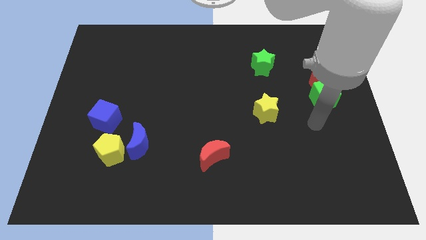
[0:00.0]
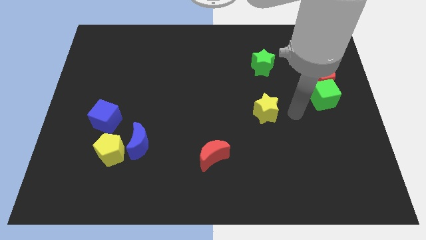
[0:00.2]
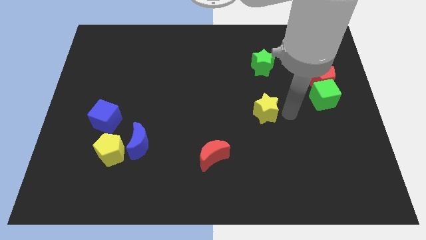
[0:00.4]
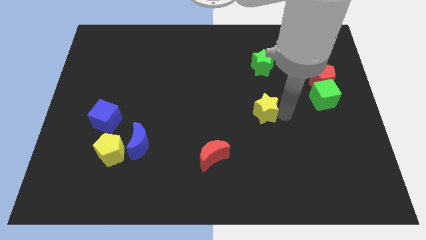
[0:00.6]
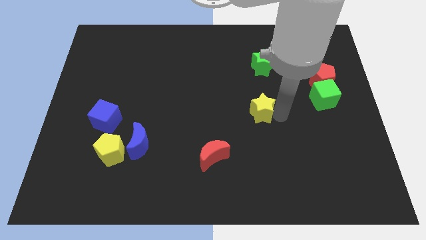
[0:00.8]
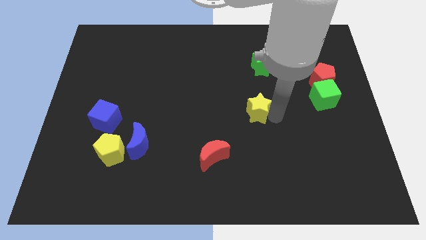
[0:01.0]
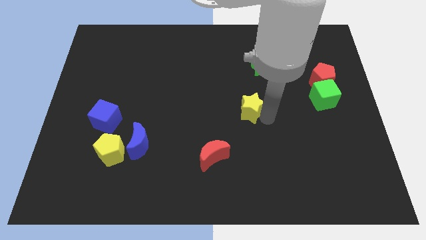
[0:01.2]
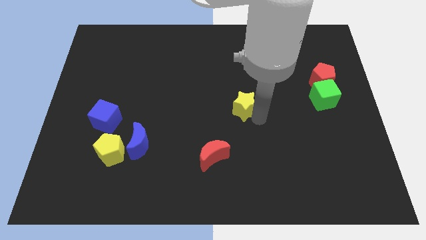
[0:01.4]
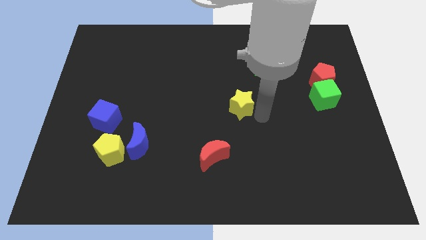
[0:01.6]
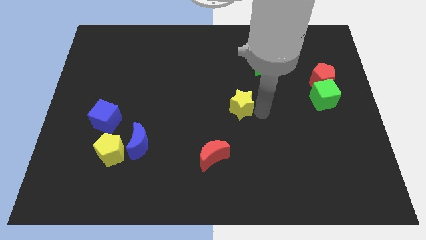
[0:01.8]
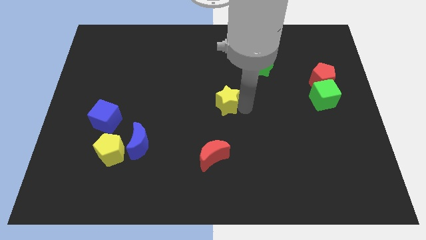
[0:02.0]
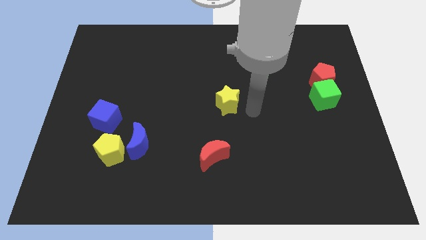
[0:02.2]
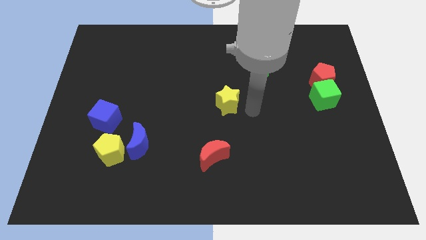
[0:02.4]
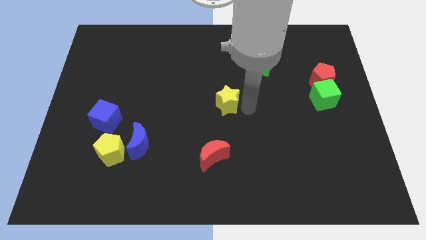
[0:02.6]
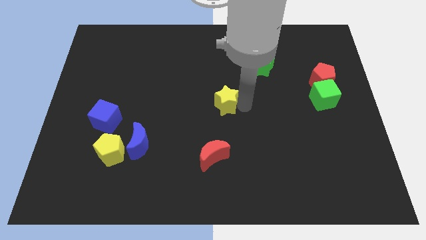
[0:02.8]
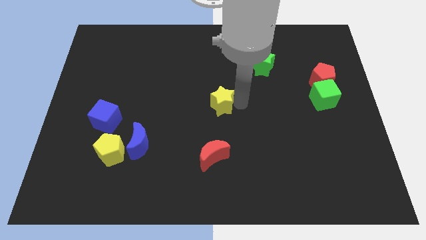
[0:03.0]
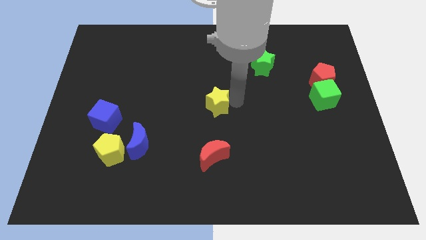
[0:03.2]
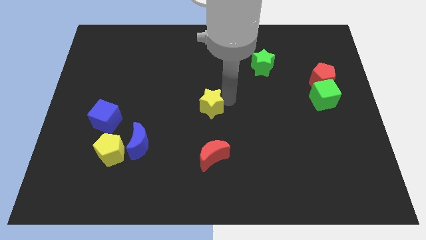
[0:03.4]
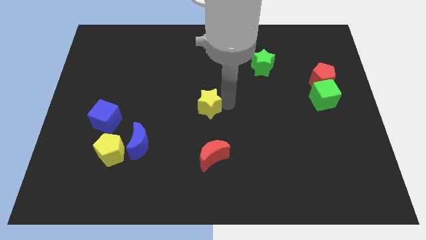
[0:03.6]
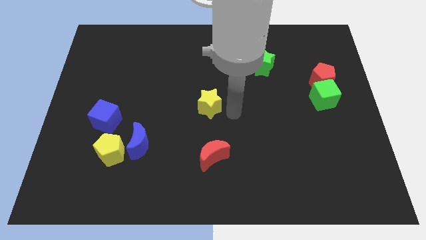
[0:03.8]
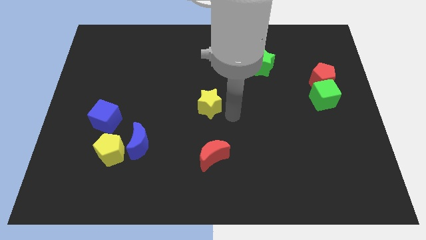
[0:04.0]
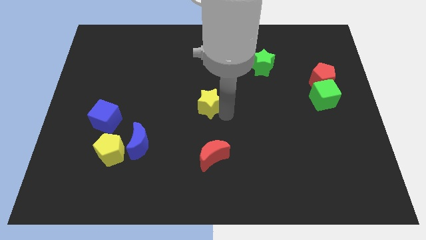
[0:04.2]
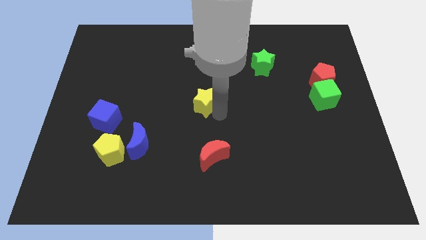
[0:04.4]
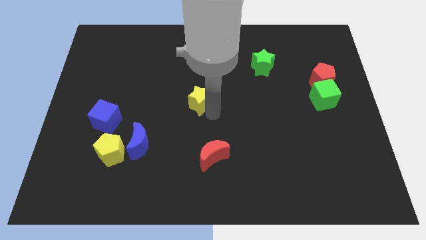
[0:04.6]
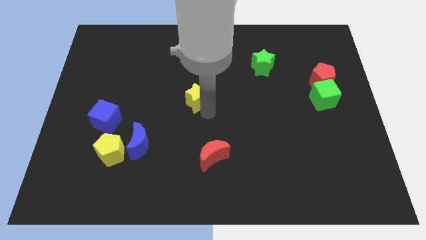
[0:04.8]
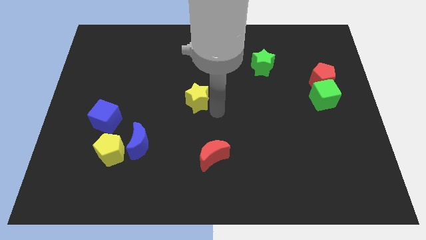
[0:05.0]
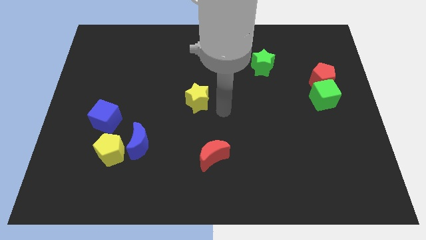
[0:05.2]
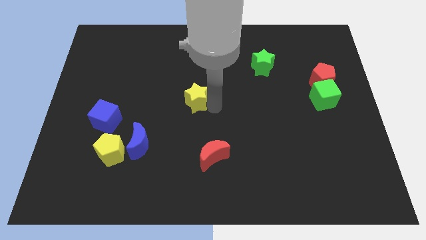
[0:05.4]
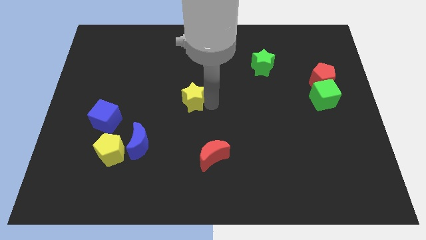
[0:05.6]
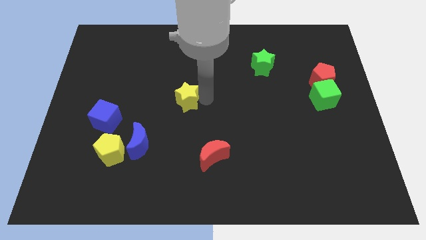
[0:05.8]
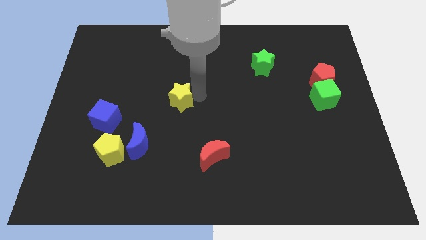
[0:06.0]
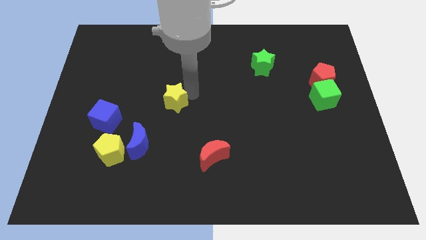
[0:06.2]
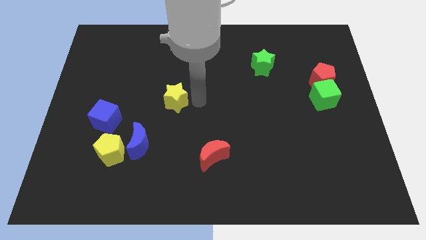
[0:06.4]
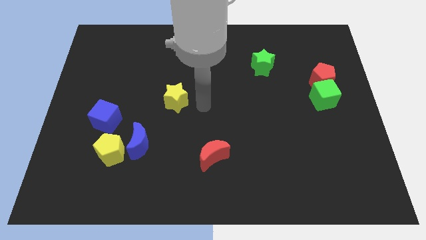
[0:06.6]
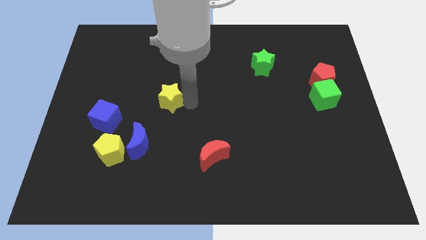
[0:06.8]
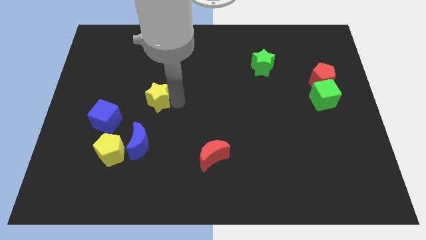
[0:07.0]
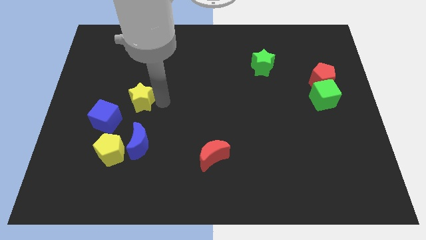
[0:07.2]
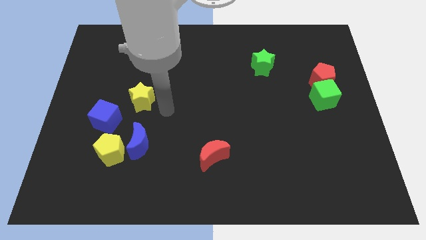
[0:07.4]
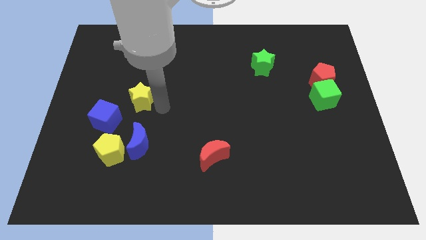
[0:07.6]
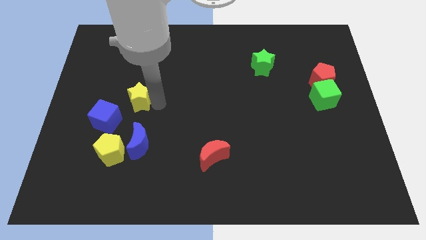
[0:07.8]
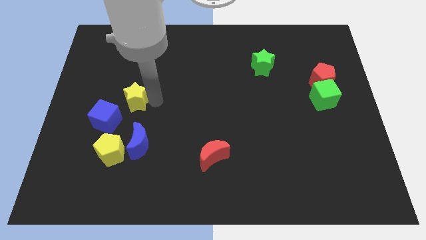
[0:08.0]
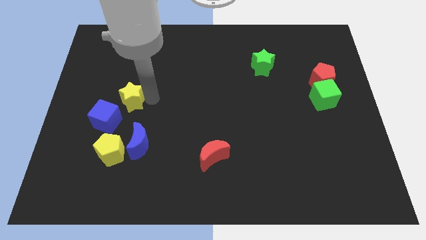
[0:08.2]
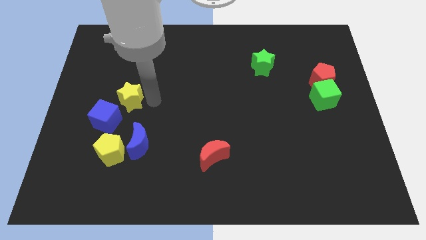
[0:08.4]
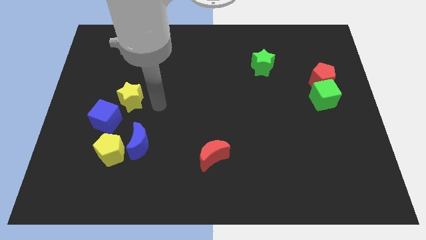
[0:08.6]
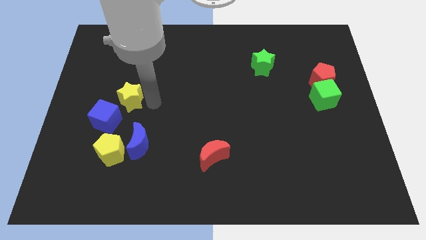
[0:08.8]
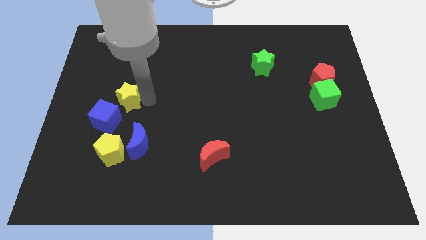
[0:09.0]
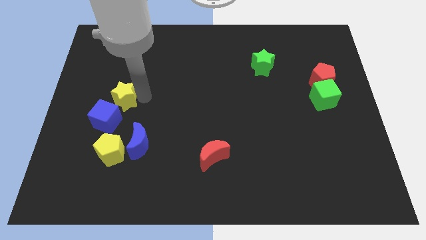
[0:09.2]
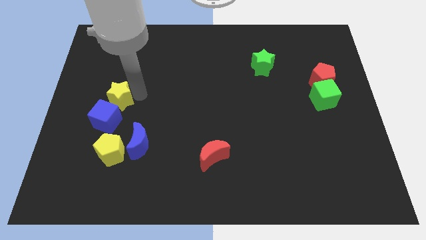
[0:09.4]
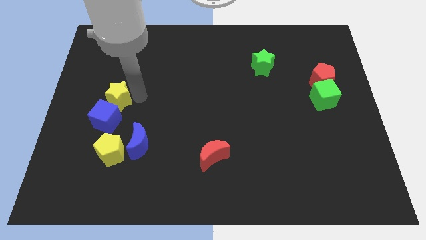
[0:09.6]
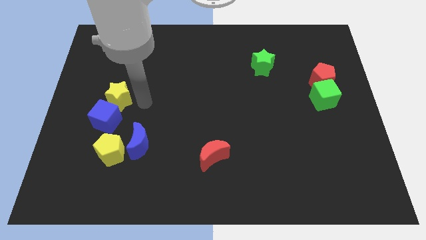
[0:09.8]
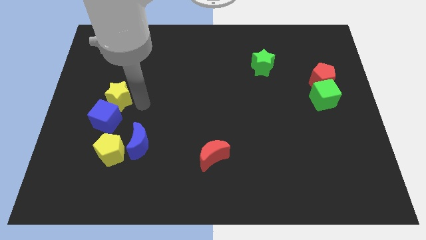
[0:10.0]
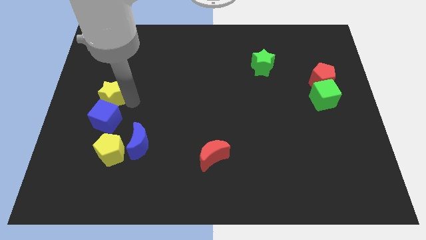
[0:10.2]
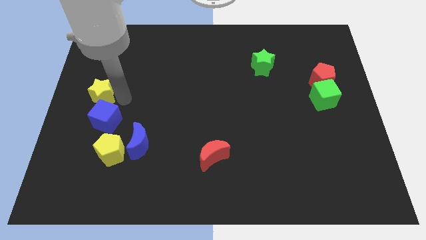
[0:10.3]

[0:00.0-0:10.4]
push the yellow star to the left side of the board

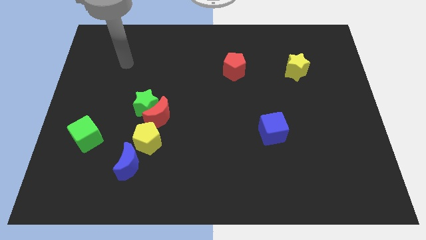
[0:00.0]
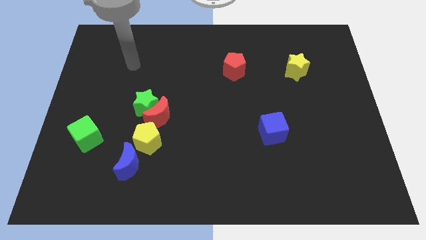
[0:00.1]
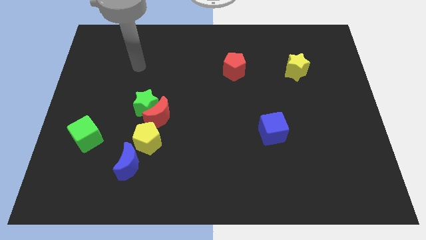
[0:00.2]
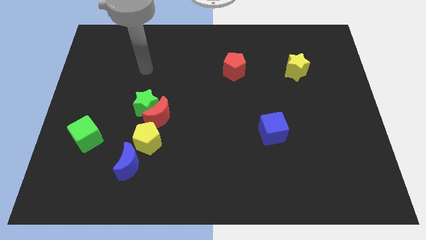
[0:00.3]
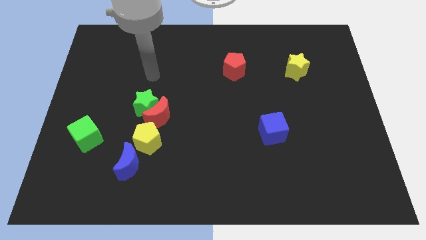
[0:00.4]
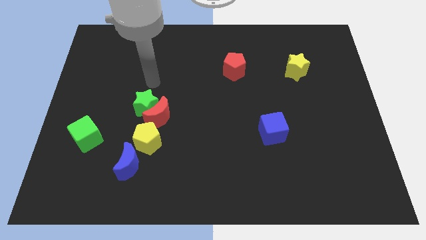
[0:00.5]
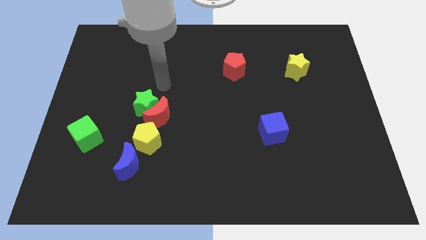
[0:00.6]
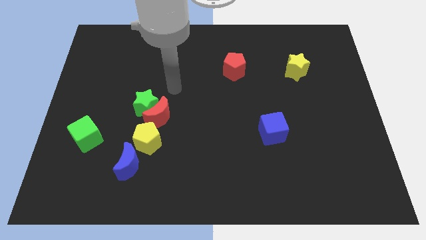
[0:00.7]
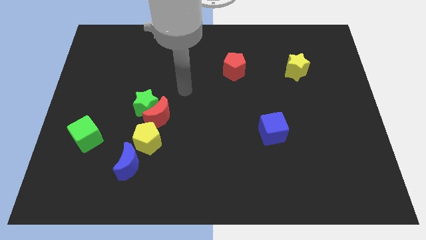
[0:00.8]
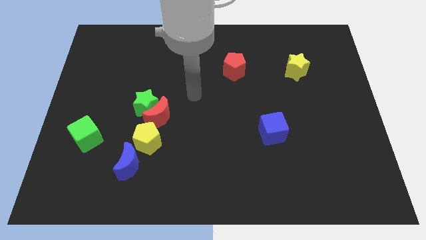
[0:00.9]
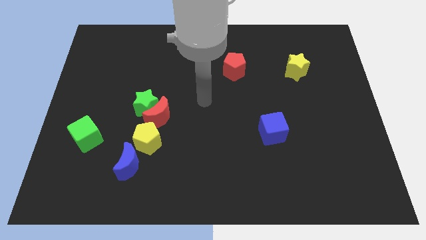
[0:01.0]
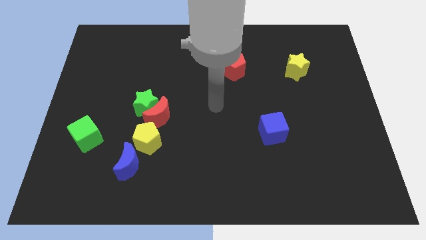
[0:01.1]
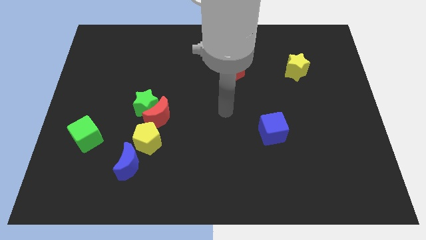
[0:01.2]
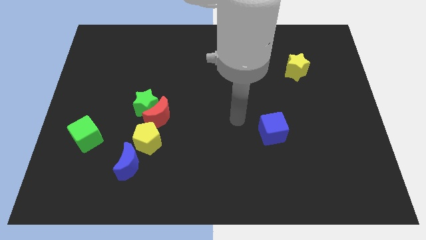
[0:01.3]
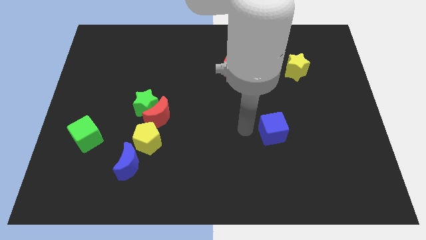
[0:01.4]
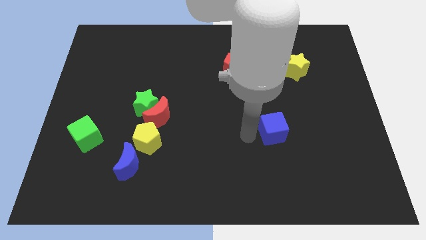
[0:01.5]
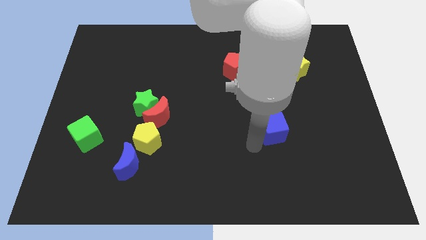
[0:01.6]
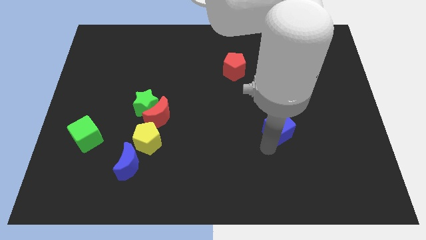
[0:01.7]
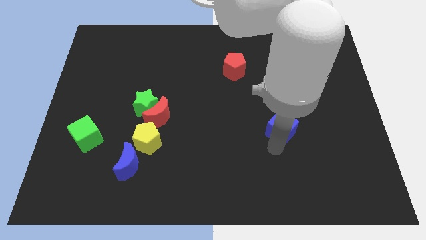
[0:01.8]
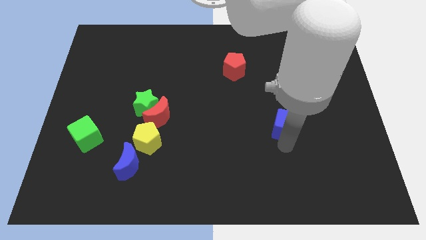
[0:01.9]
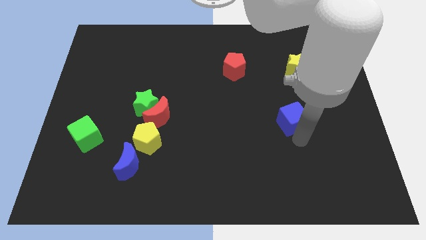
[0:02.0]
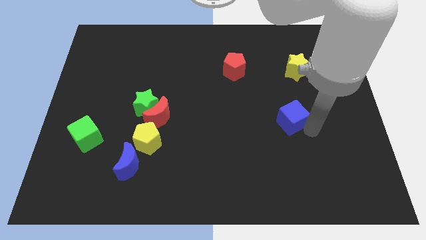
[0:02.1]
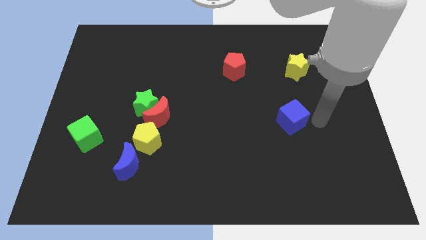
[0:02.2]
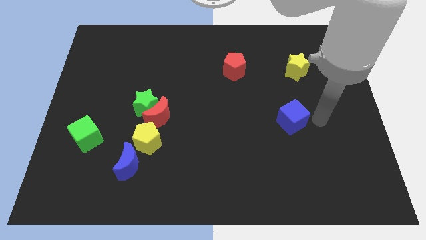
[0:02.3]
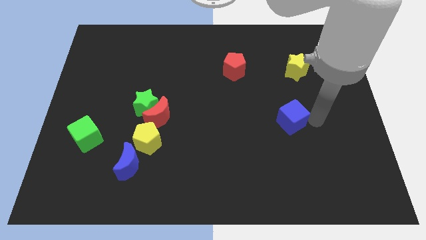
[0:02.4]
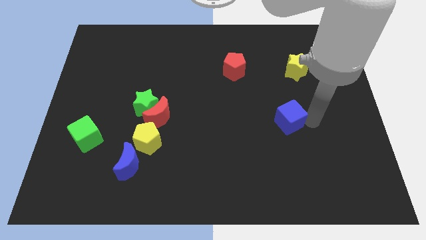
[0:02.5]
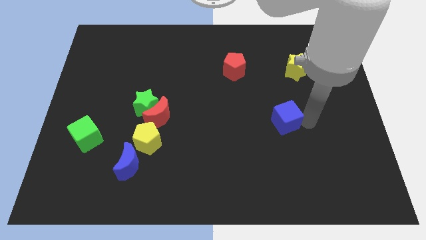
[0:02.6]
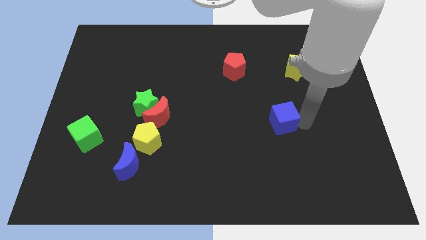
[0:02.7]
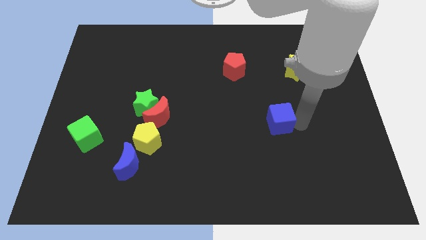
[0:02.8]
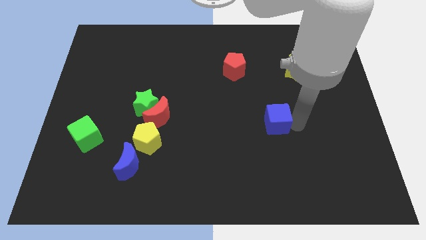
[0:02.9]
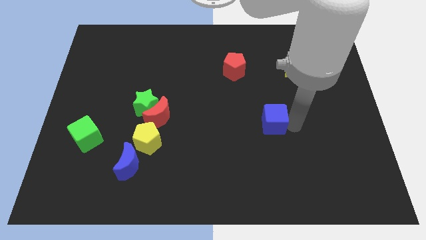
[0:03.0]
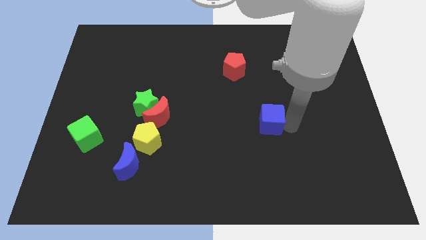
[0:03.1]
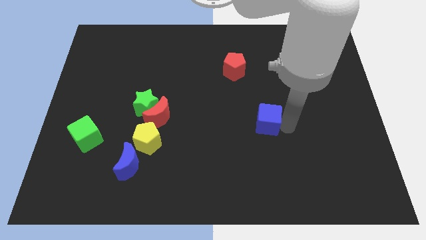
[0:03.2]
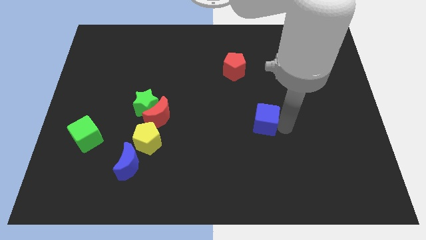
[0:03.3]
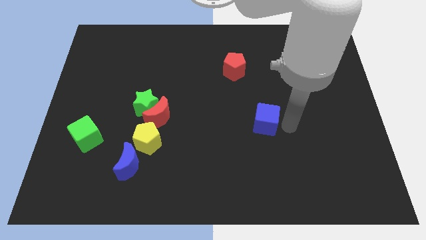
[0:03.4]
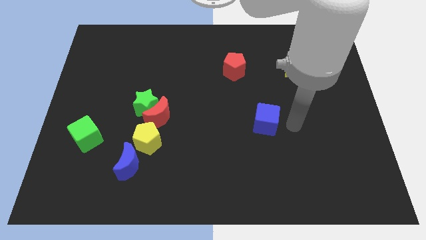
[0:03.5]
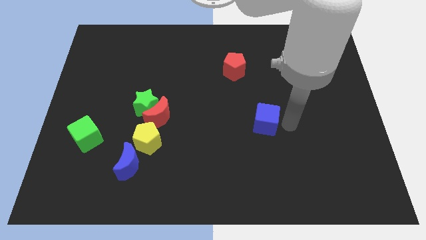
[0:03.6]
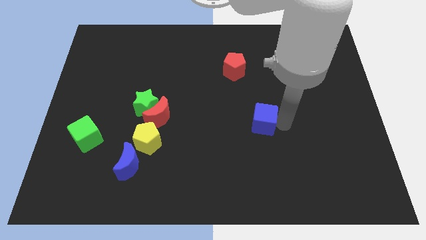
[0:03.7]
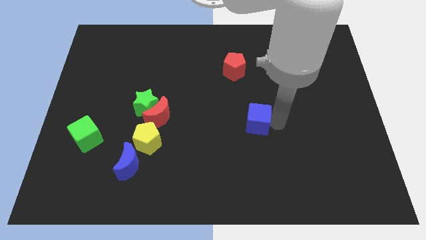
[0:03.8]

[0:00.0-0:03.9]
put the blue cube to the middle of the board
